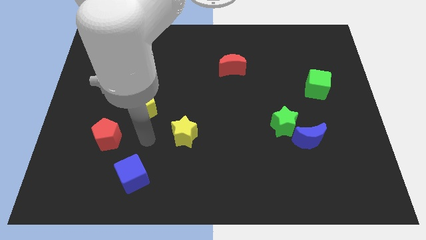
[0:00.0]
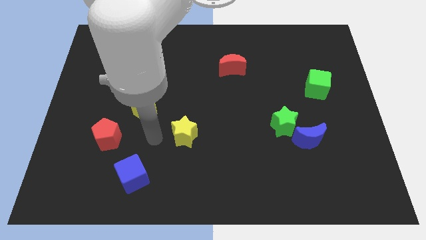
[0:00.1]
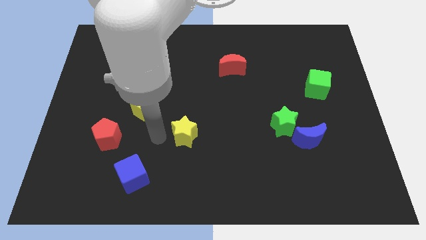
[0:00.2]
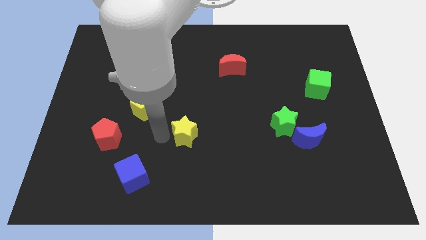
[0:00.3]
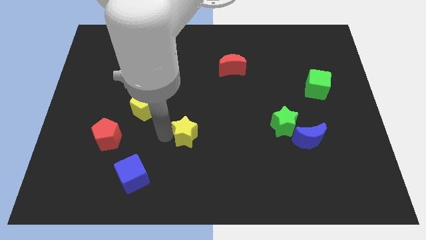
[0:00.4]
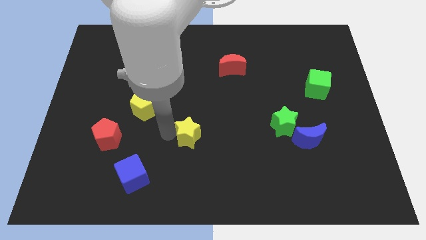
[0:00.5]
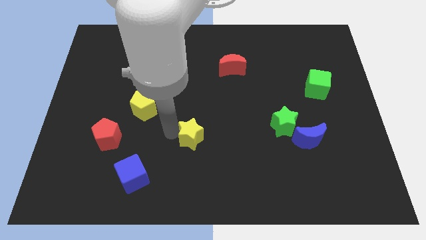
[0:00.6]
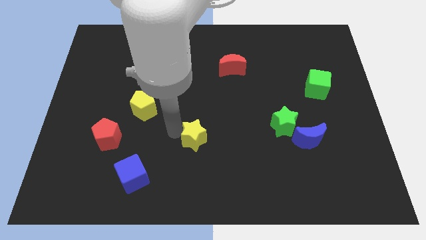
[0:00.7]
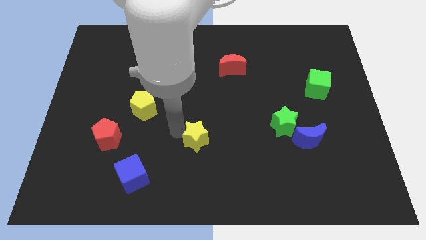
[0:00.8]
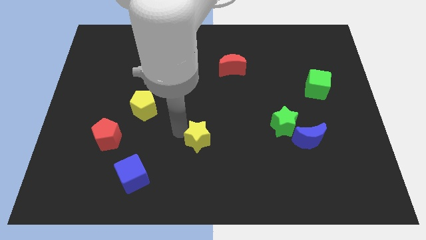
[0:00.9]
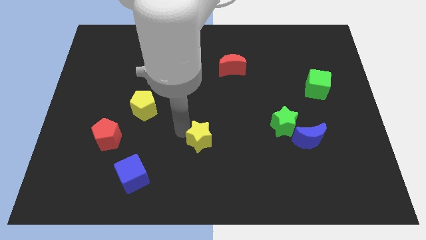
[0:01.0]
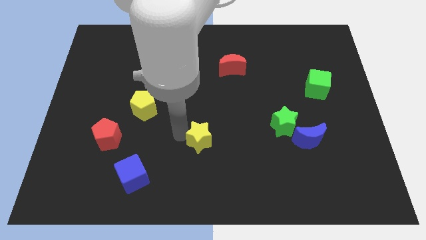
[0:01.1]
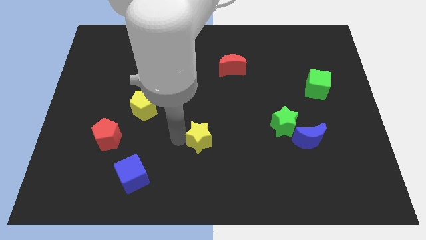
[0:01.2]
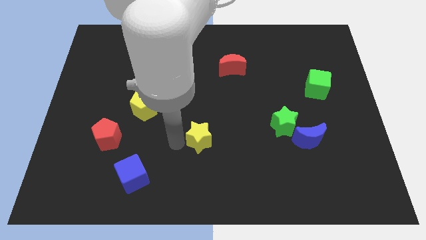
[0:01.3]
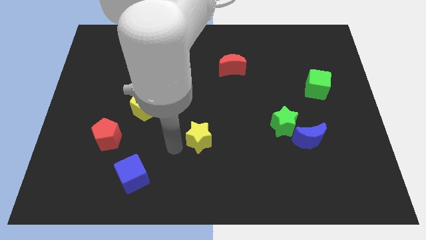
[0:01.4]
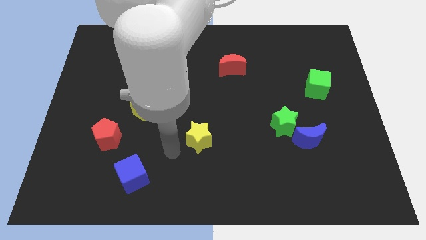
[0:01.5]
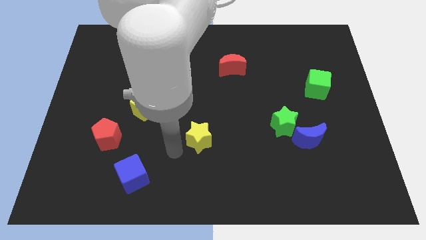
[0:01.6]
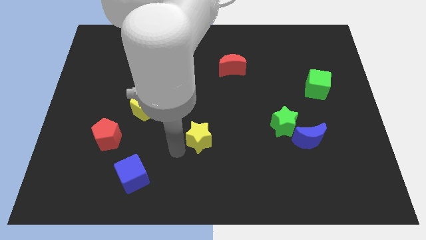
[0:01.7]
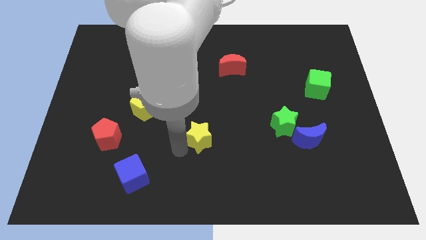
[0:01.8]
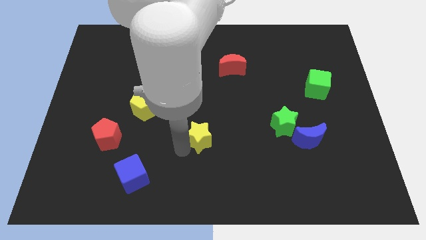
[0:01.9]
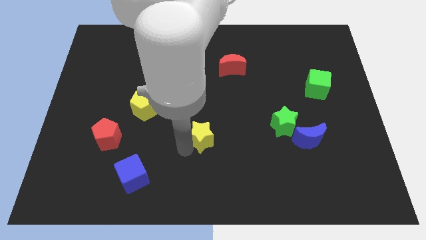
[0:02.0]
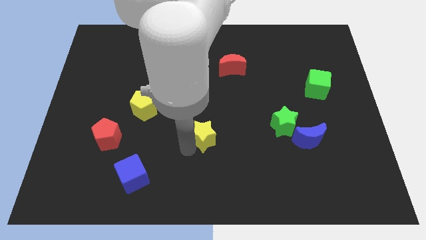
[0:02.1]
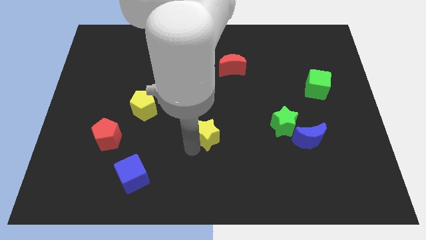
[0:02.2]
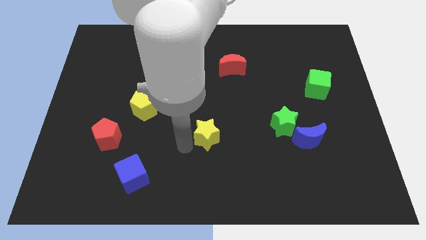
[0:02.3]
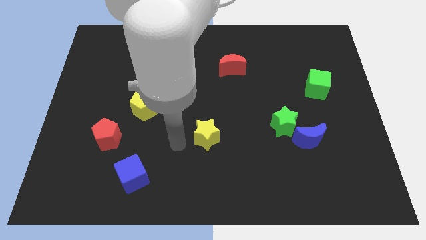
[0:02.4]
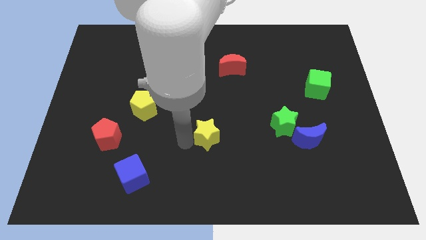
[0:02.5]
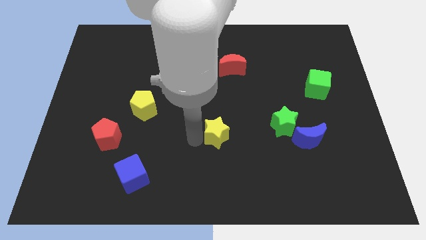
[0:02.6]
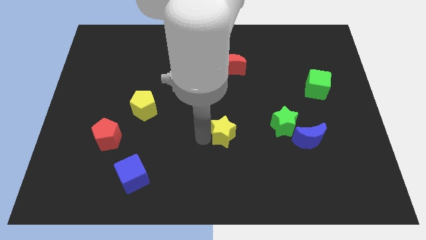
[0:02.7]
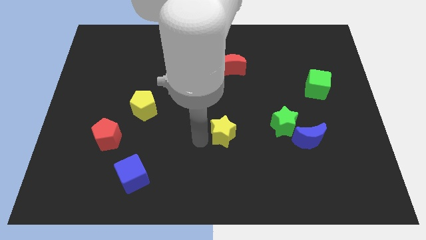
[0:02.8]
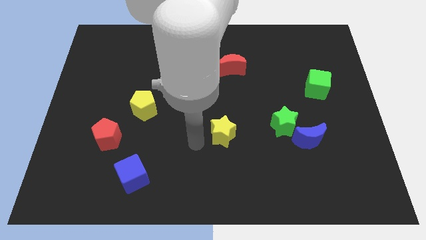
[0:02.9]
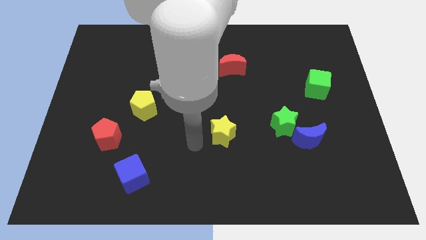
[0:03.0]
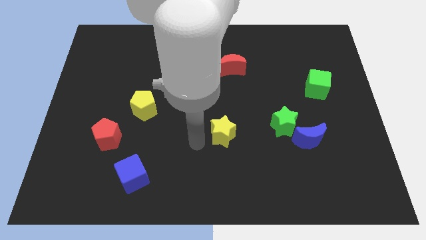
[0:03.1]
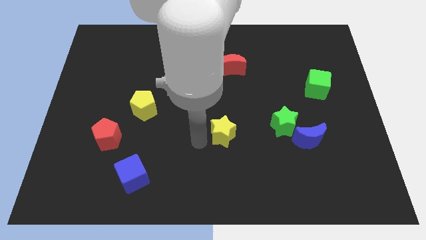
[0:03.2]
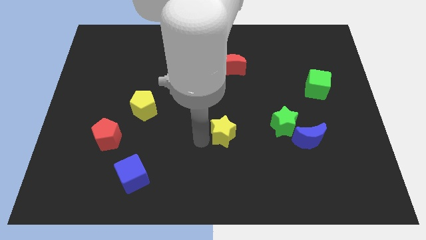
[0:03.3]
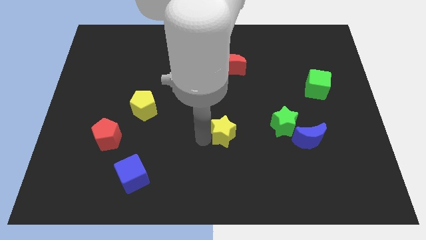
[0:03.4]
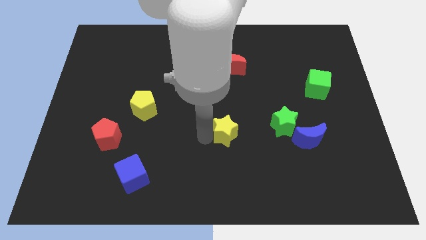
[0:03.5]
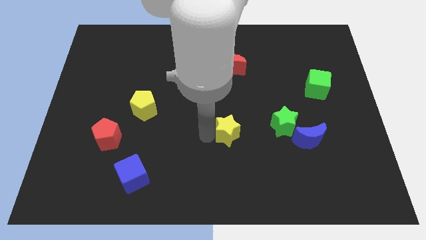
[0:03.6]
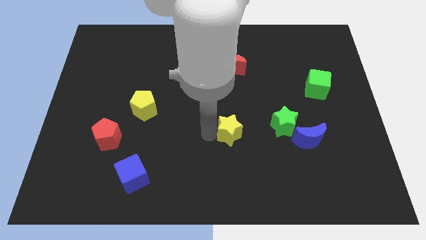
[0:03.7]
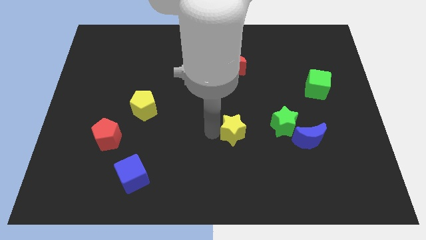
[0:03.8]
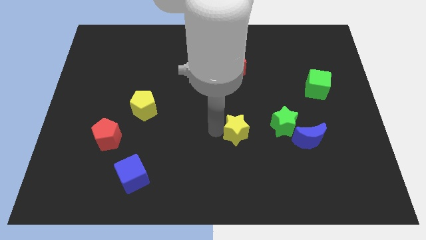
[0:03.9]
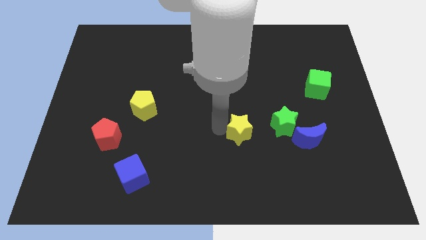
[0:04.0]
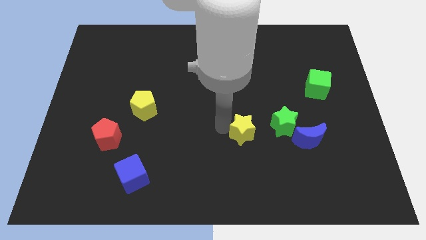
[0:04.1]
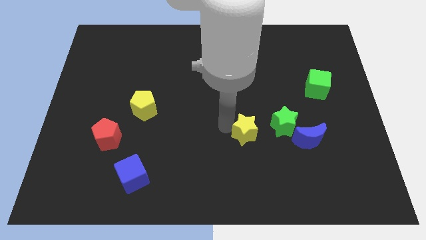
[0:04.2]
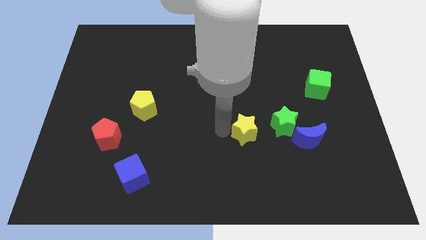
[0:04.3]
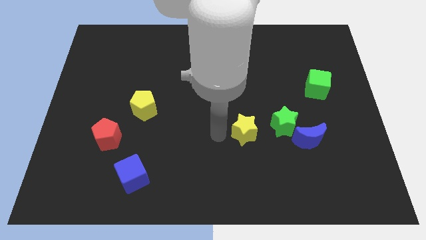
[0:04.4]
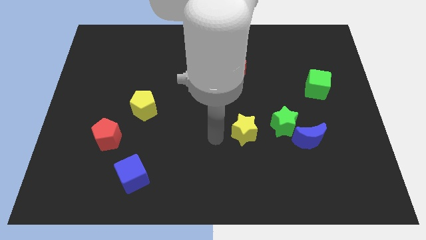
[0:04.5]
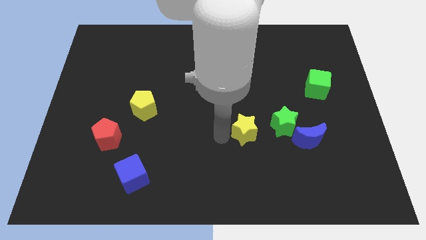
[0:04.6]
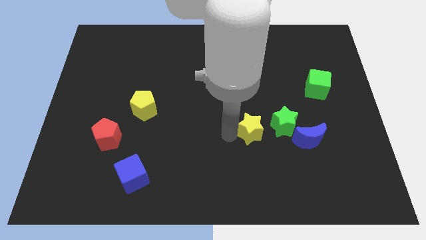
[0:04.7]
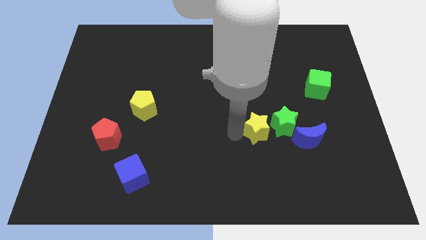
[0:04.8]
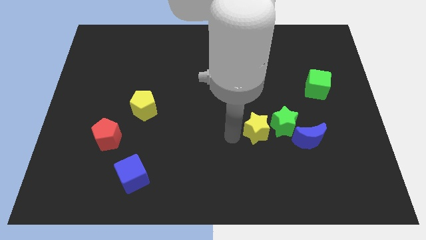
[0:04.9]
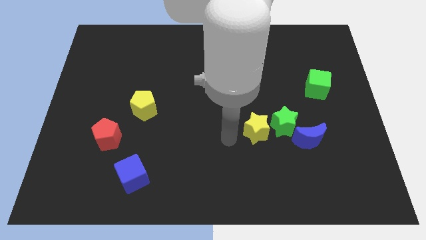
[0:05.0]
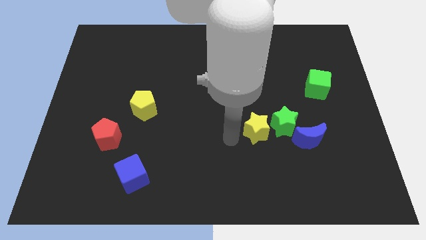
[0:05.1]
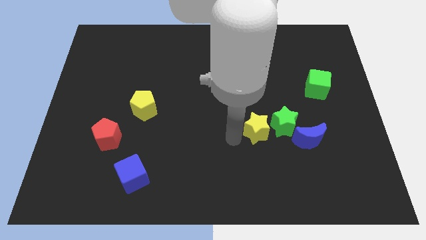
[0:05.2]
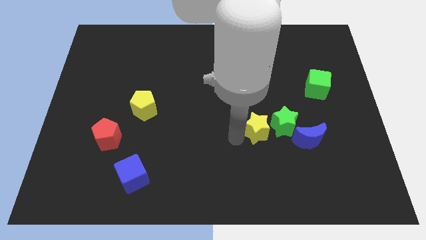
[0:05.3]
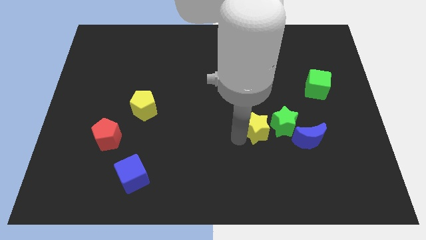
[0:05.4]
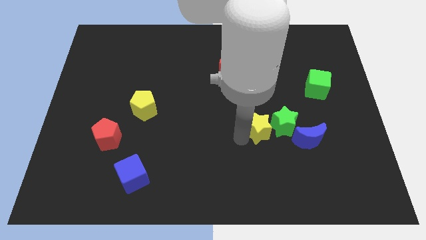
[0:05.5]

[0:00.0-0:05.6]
slide the yellow star close to the green star

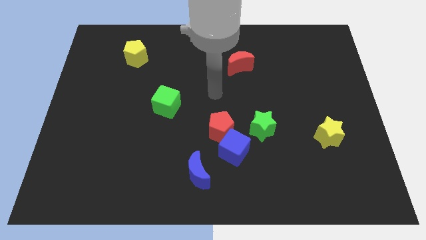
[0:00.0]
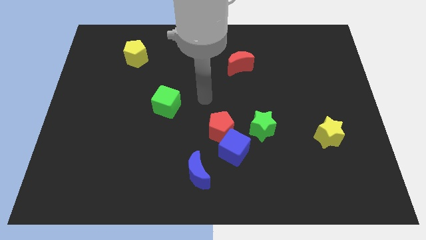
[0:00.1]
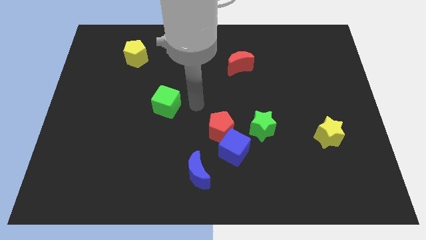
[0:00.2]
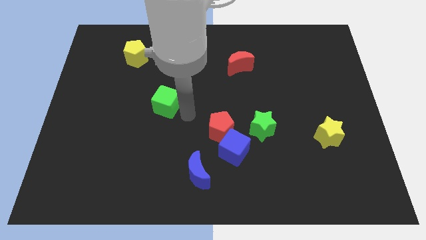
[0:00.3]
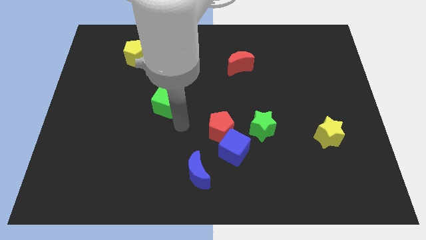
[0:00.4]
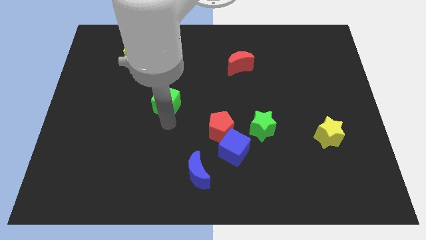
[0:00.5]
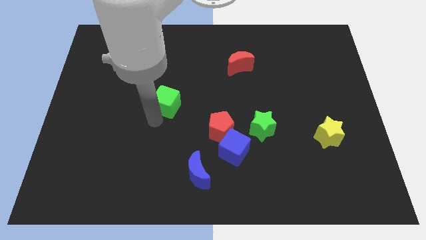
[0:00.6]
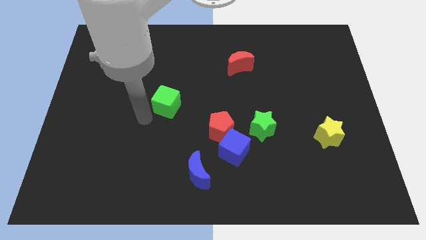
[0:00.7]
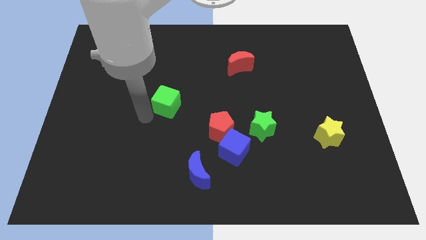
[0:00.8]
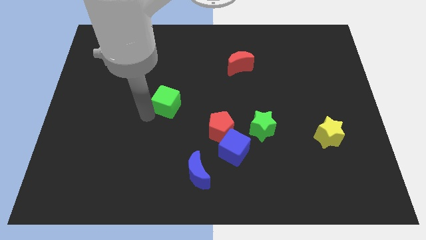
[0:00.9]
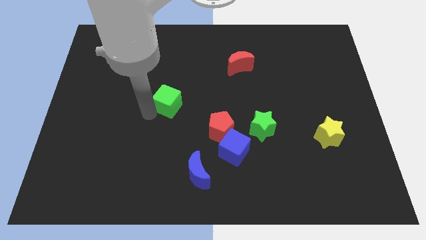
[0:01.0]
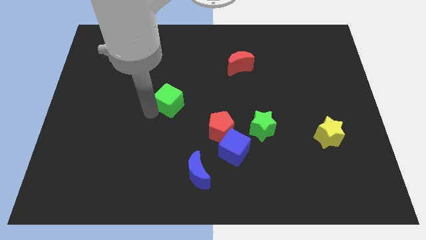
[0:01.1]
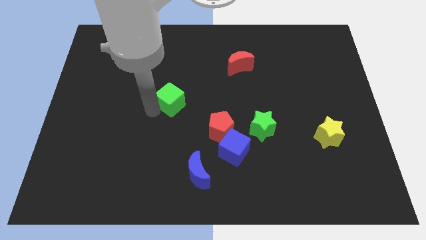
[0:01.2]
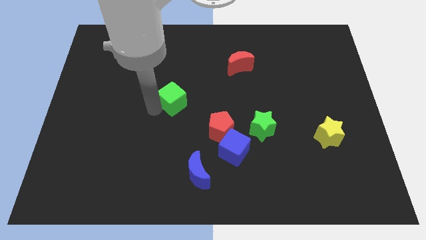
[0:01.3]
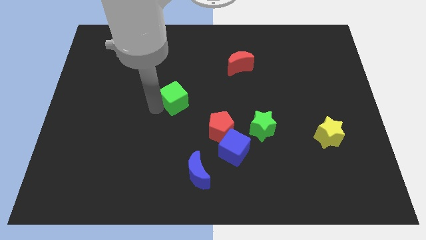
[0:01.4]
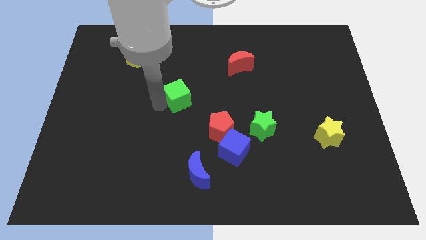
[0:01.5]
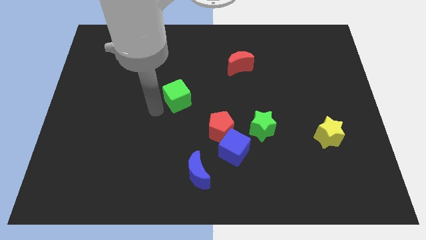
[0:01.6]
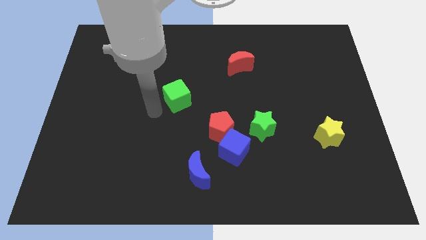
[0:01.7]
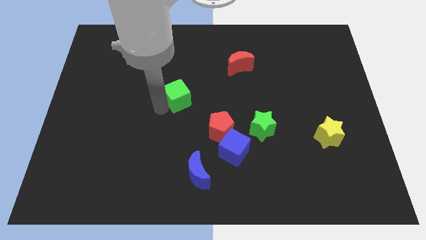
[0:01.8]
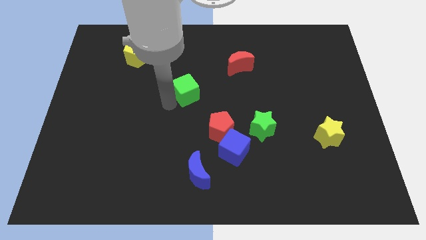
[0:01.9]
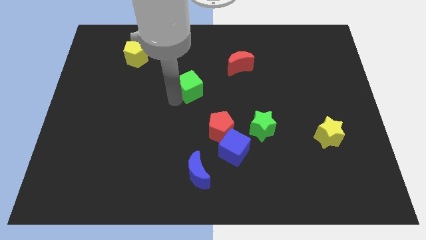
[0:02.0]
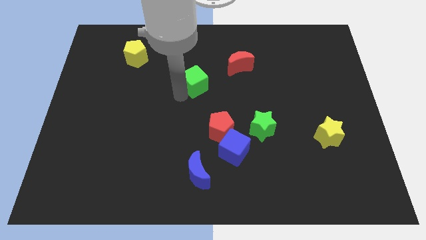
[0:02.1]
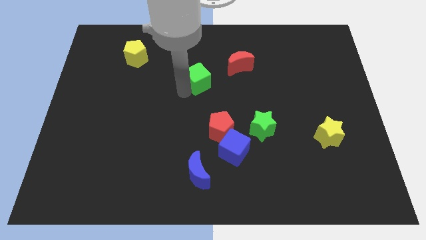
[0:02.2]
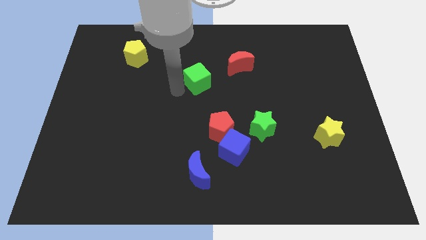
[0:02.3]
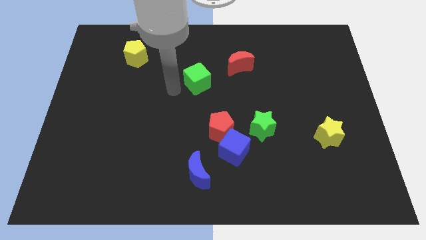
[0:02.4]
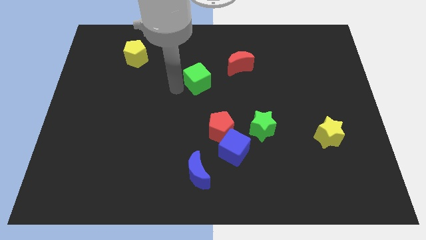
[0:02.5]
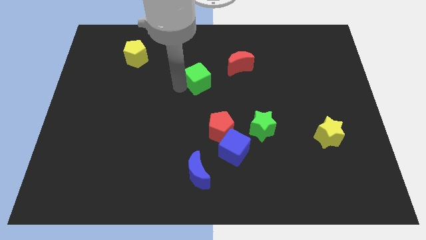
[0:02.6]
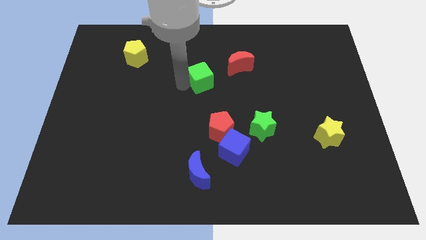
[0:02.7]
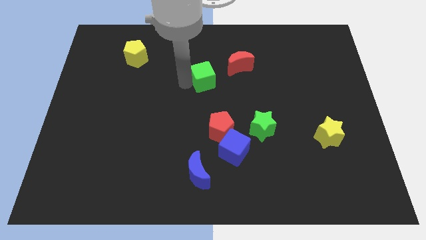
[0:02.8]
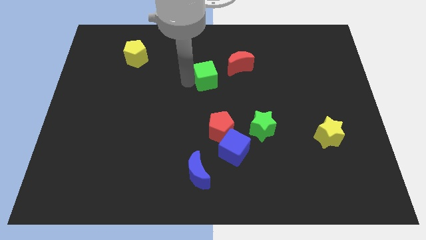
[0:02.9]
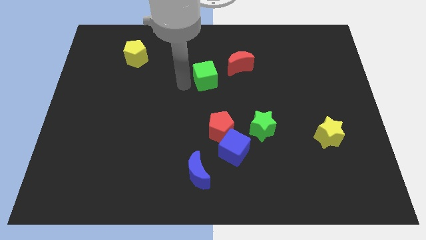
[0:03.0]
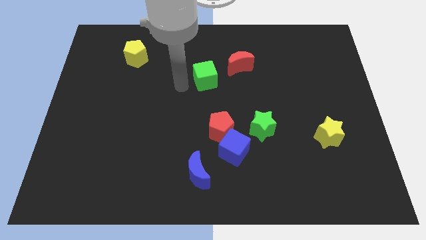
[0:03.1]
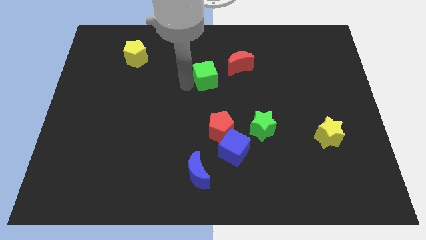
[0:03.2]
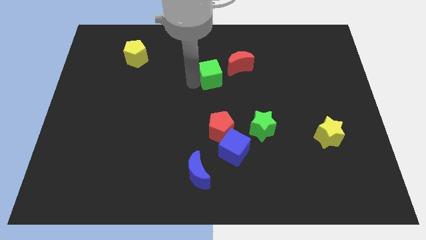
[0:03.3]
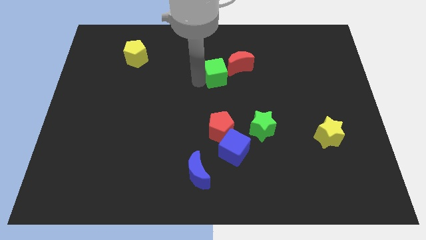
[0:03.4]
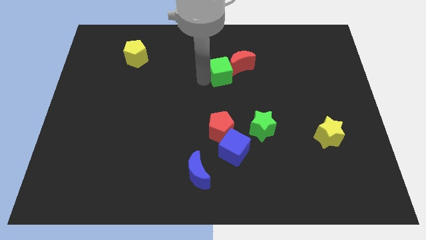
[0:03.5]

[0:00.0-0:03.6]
slide the green cube to the red moon
